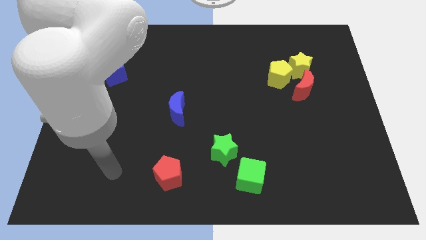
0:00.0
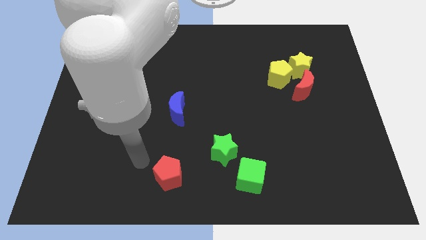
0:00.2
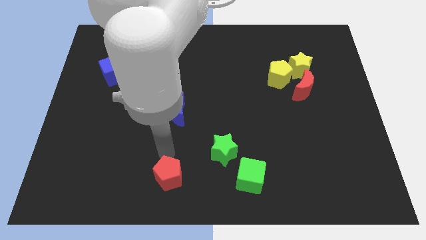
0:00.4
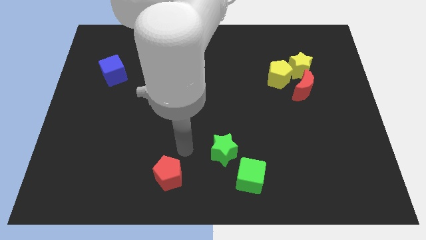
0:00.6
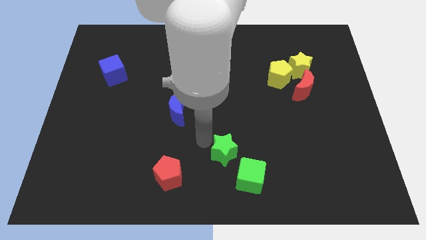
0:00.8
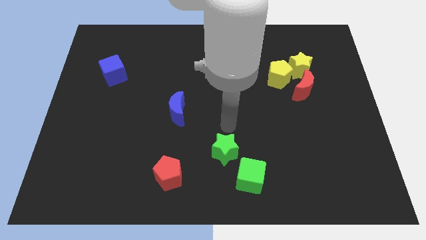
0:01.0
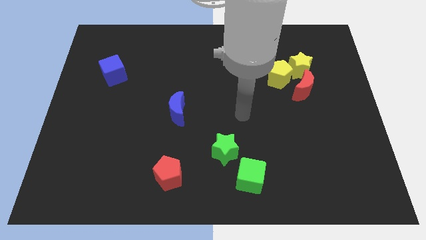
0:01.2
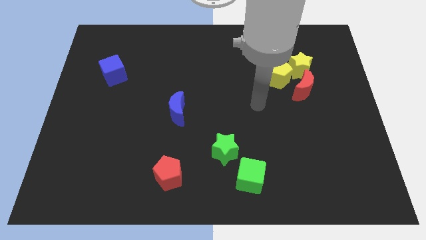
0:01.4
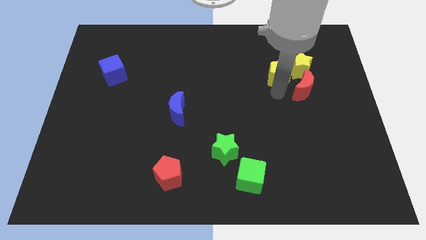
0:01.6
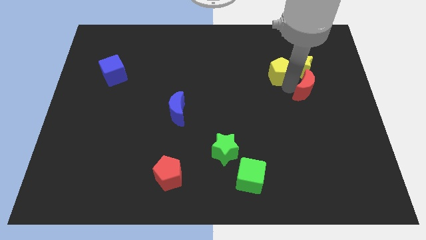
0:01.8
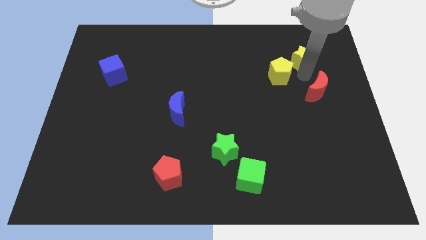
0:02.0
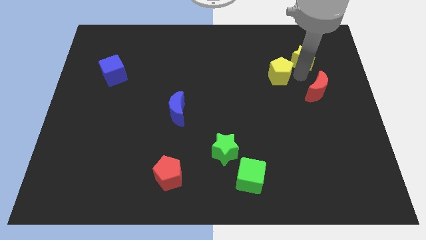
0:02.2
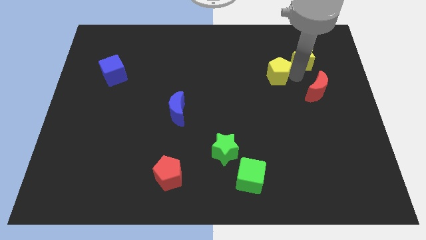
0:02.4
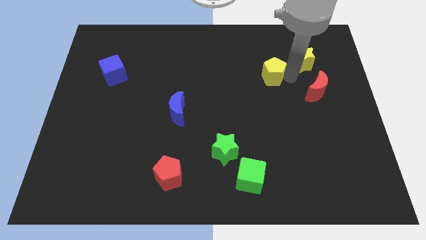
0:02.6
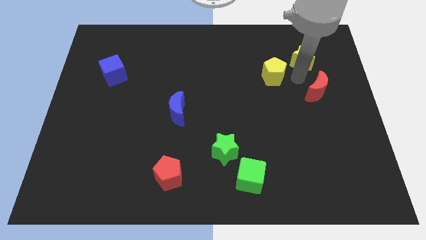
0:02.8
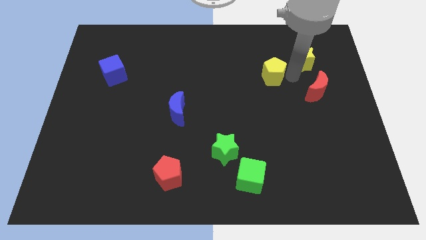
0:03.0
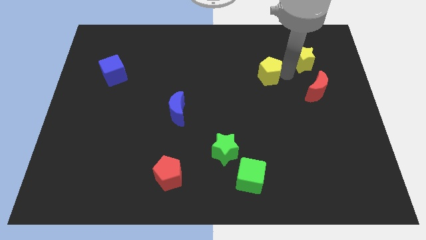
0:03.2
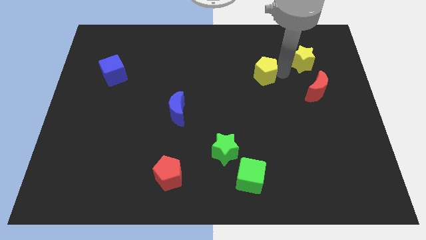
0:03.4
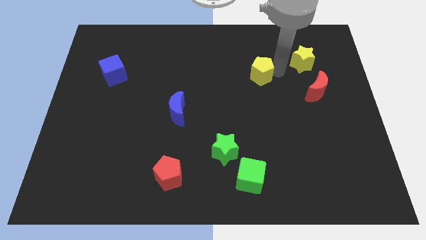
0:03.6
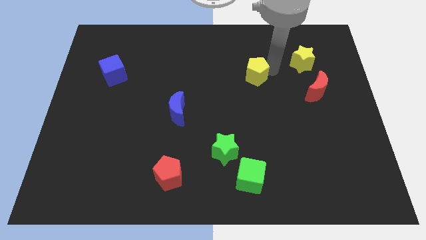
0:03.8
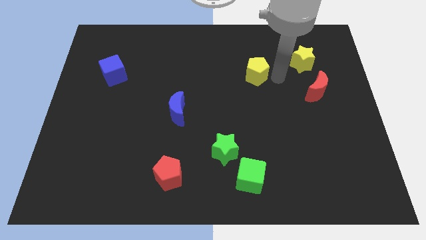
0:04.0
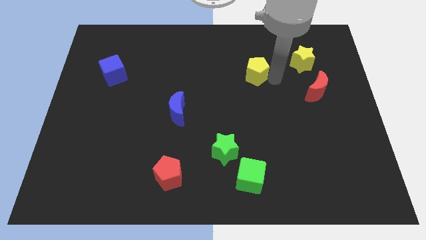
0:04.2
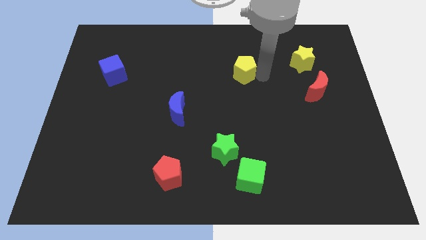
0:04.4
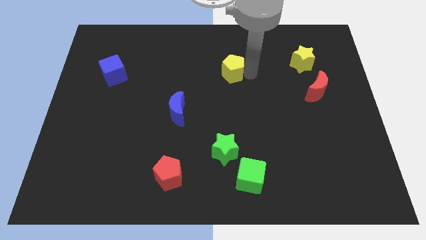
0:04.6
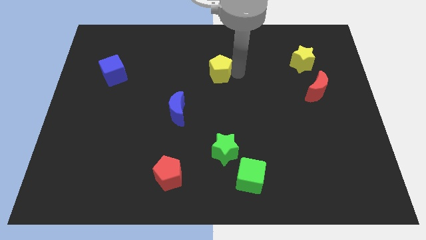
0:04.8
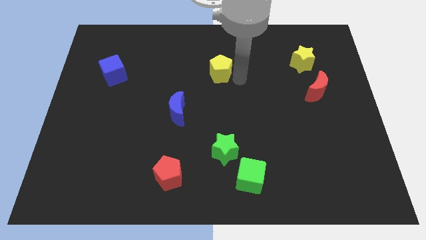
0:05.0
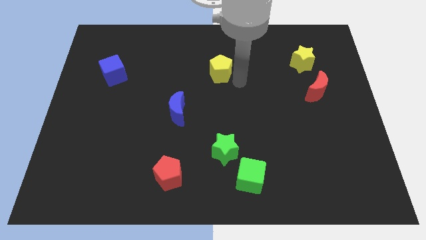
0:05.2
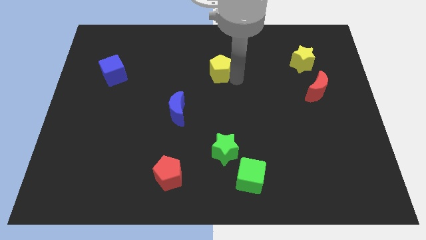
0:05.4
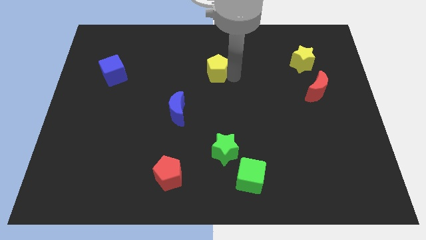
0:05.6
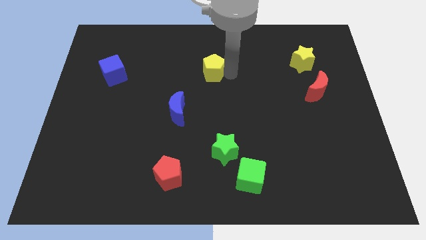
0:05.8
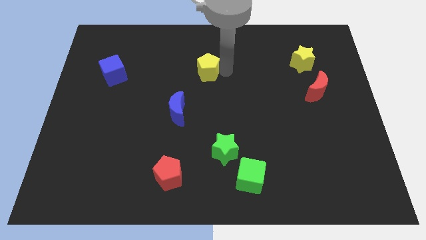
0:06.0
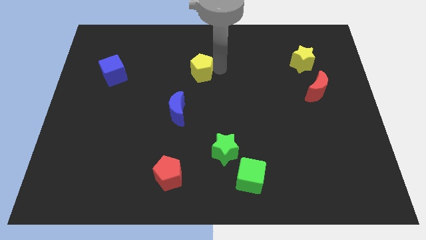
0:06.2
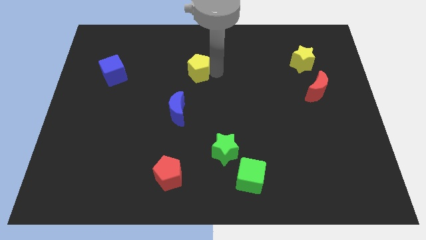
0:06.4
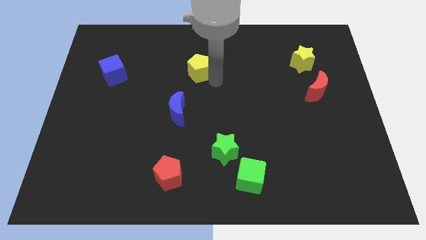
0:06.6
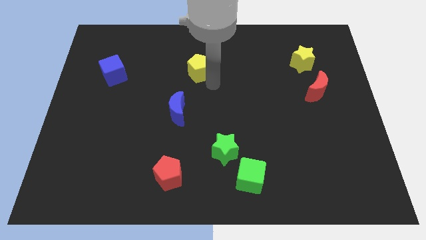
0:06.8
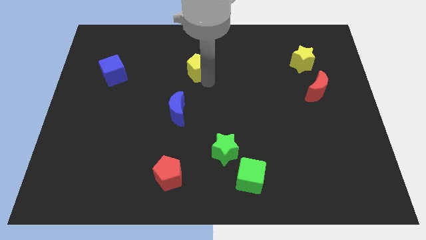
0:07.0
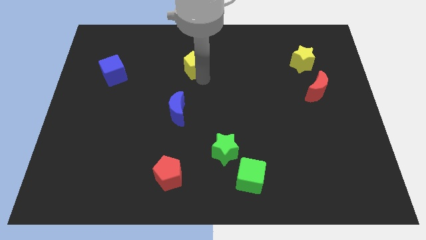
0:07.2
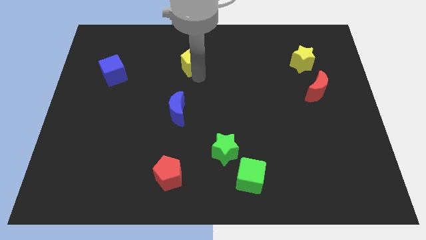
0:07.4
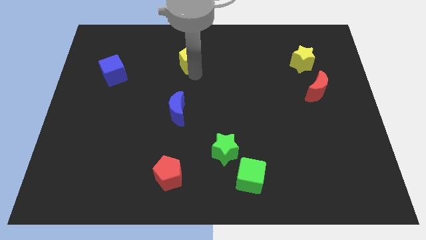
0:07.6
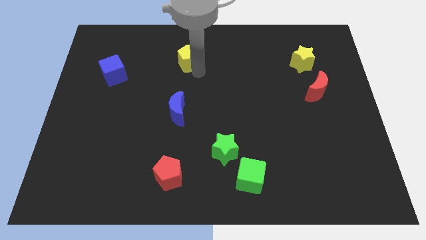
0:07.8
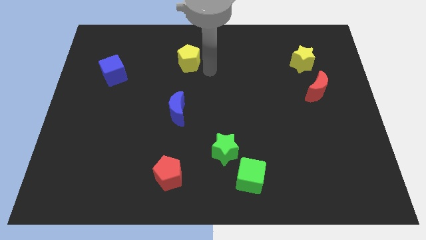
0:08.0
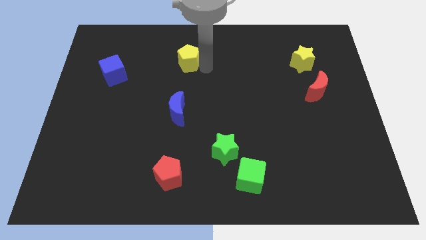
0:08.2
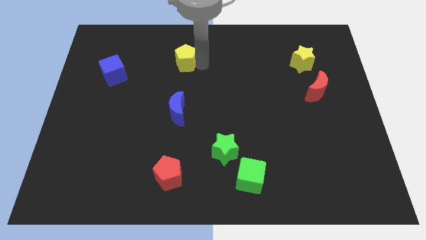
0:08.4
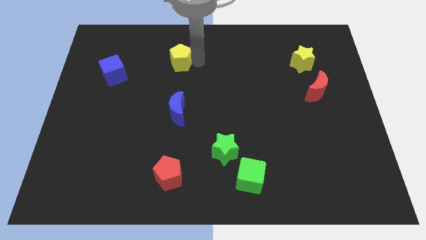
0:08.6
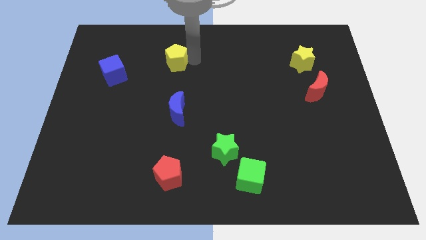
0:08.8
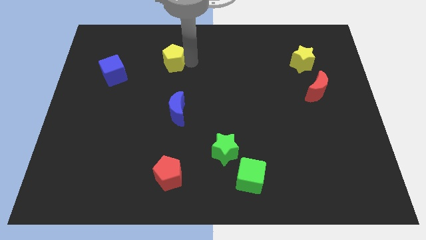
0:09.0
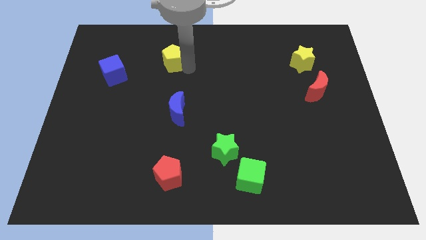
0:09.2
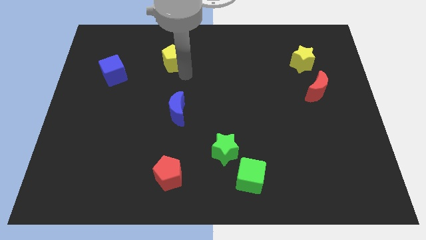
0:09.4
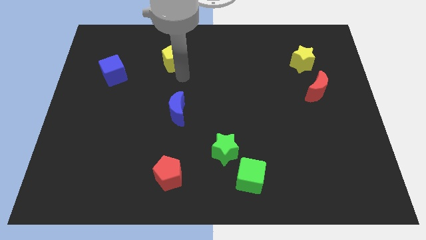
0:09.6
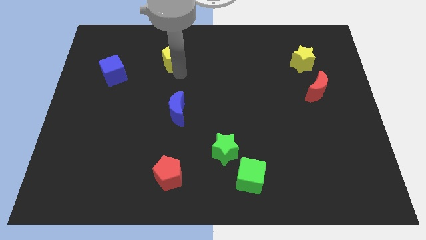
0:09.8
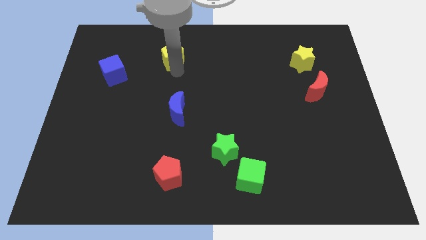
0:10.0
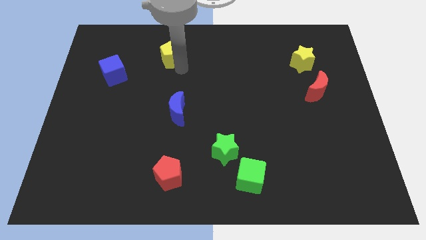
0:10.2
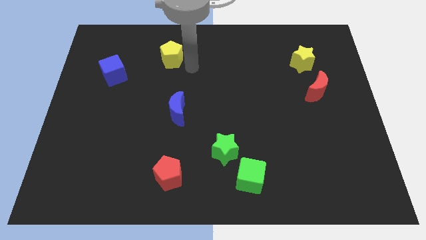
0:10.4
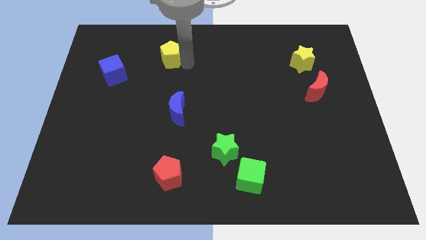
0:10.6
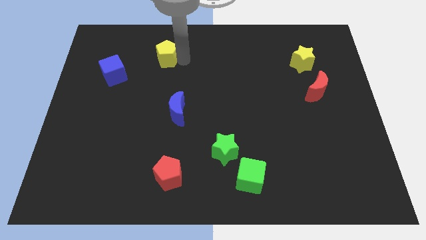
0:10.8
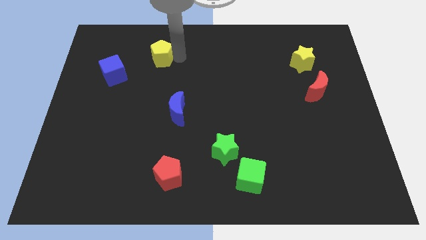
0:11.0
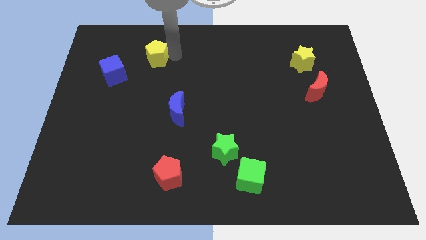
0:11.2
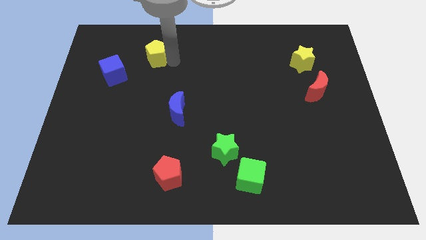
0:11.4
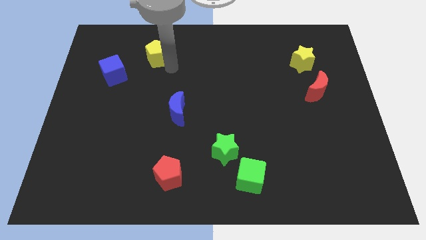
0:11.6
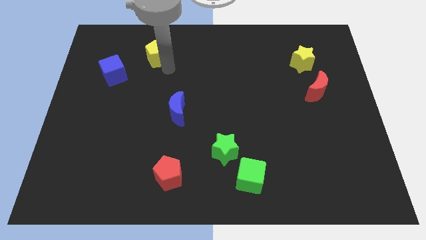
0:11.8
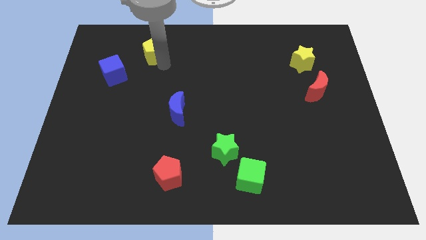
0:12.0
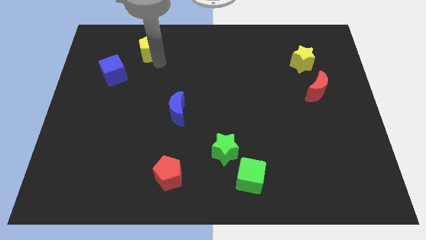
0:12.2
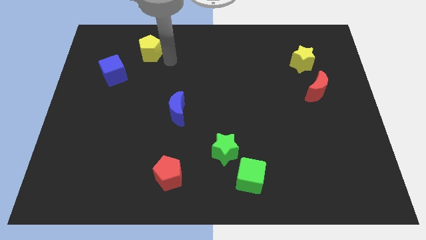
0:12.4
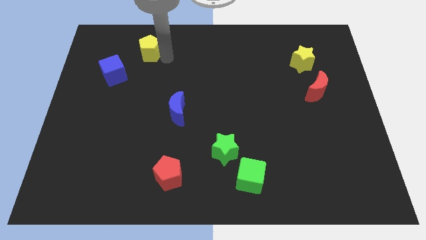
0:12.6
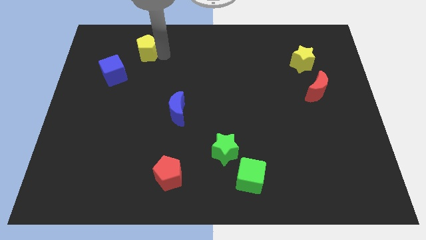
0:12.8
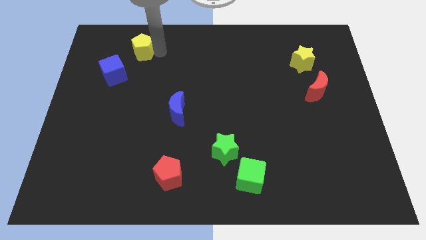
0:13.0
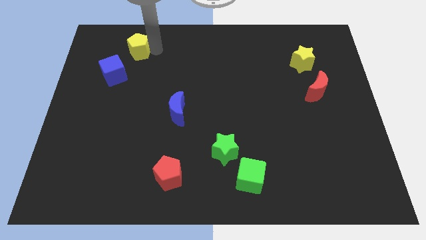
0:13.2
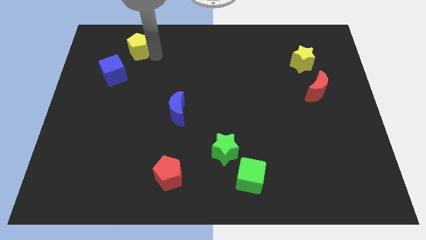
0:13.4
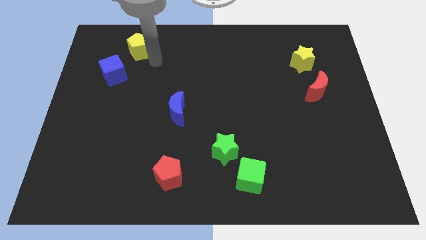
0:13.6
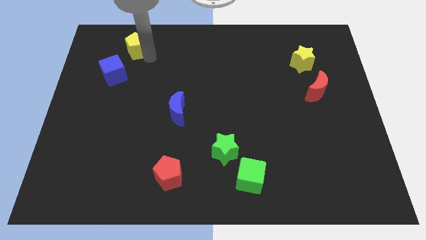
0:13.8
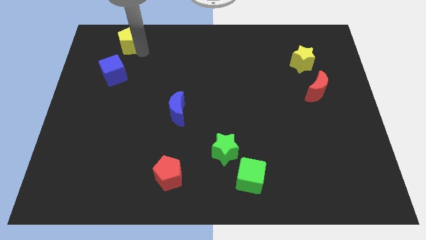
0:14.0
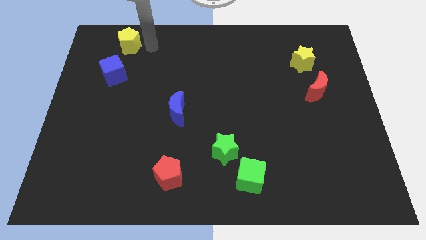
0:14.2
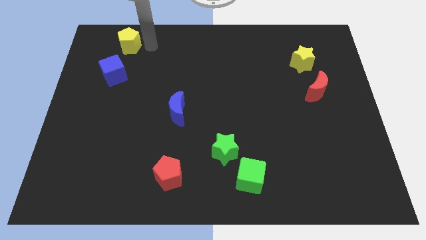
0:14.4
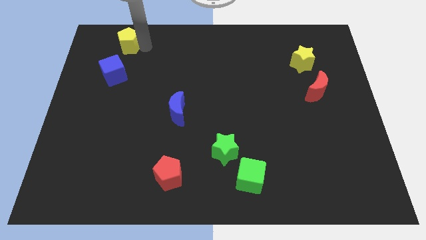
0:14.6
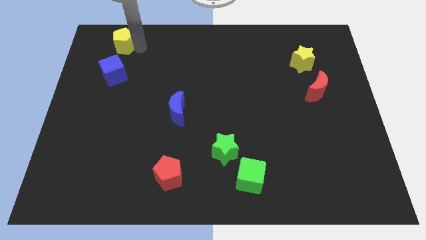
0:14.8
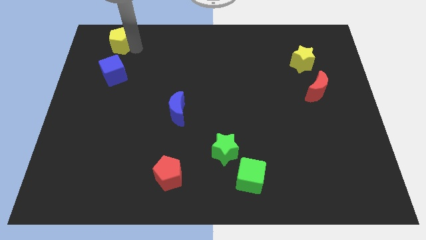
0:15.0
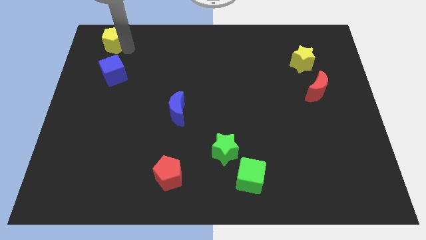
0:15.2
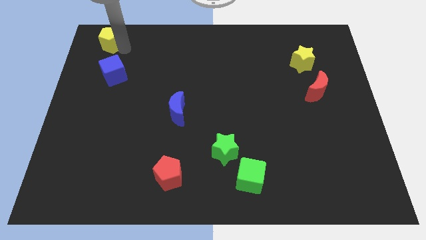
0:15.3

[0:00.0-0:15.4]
put the yellow pentagon to the top left
